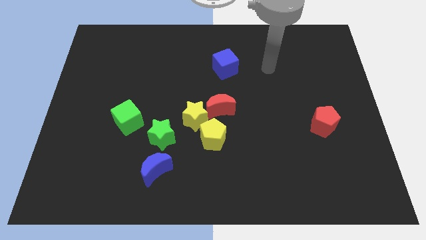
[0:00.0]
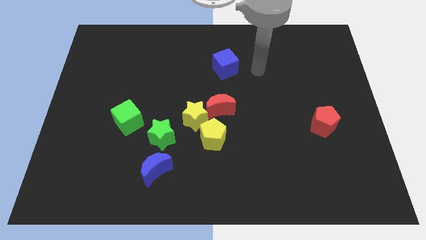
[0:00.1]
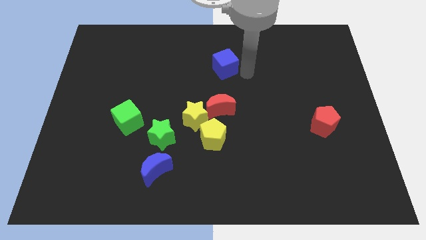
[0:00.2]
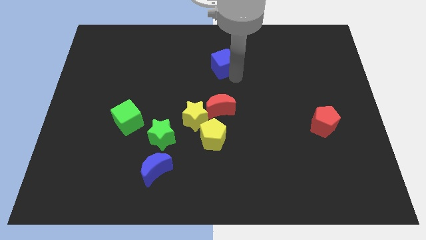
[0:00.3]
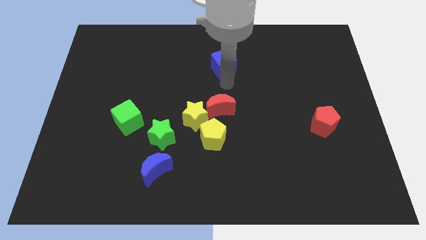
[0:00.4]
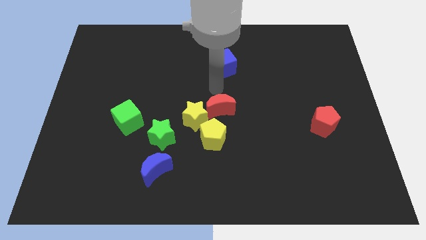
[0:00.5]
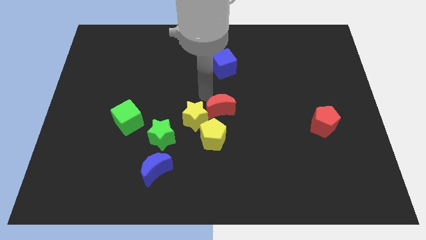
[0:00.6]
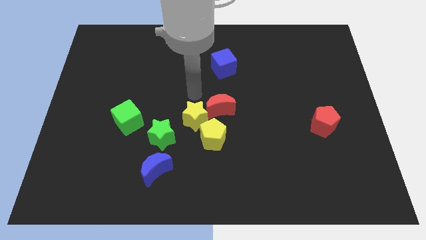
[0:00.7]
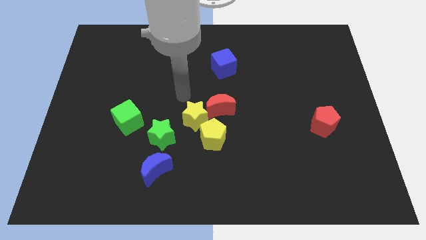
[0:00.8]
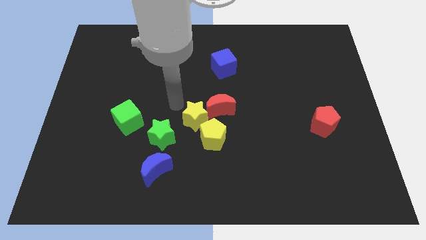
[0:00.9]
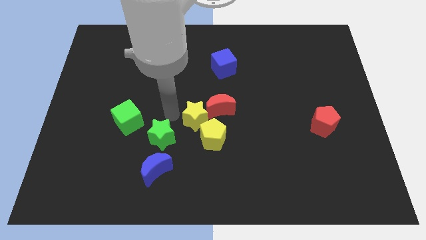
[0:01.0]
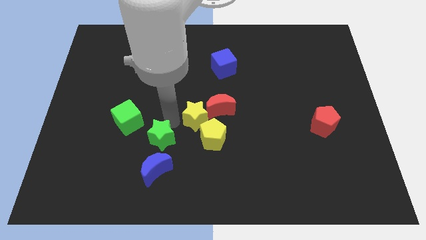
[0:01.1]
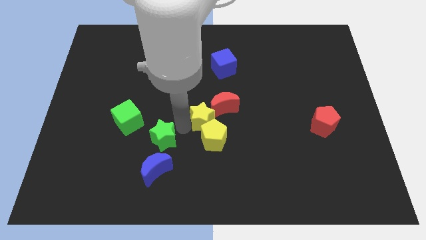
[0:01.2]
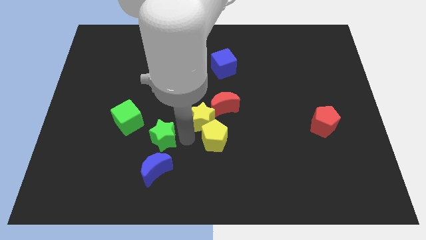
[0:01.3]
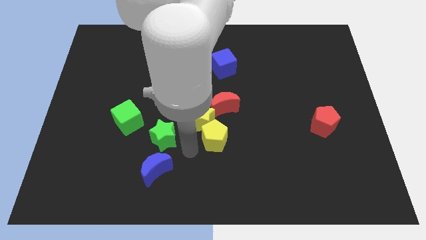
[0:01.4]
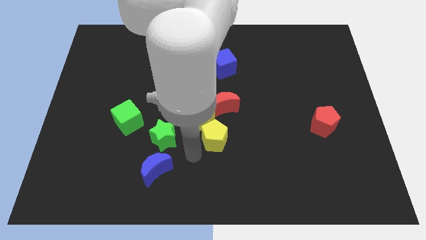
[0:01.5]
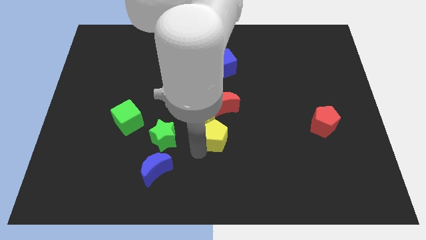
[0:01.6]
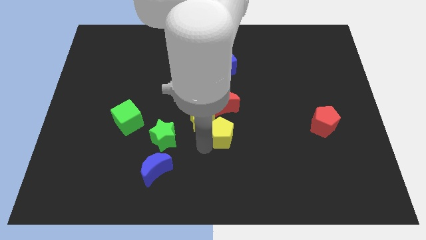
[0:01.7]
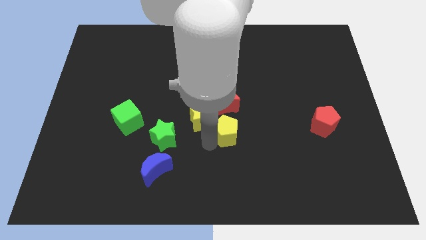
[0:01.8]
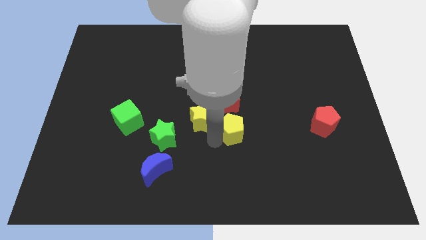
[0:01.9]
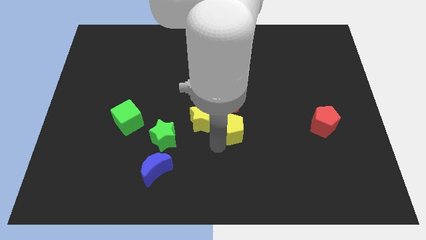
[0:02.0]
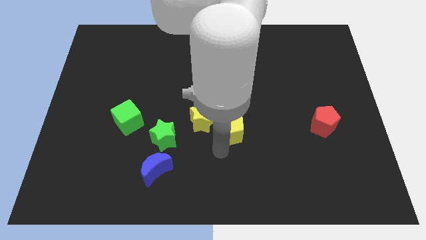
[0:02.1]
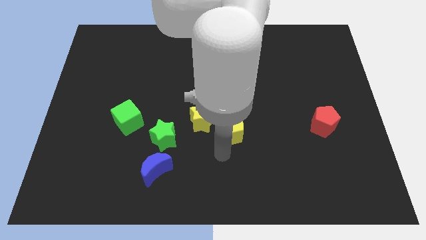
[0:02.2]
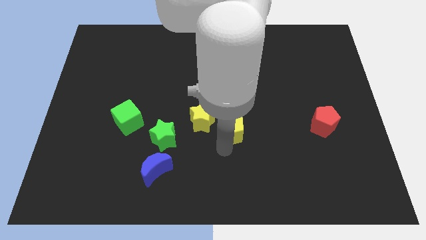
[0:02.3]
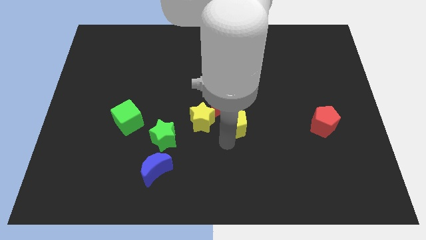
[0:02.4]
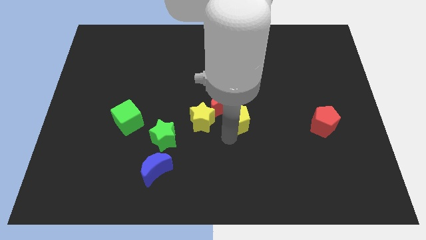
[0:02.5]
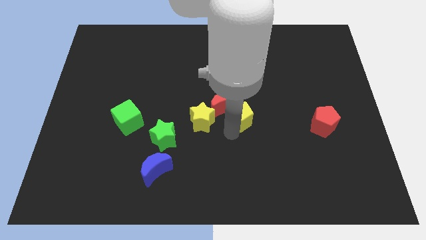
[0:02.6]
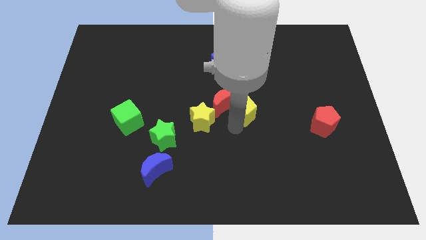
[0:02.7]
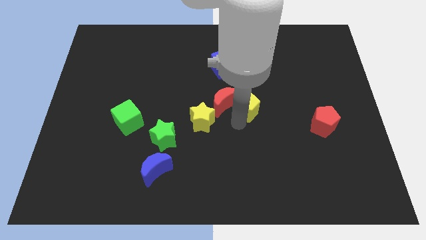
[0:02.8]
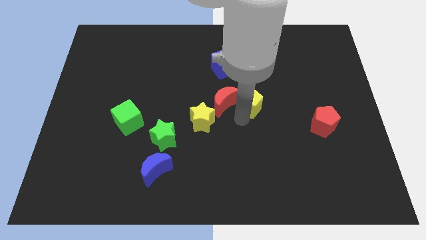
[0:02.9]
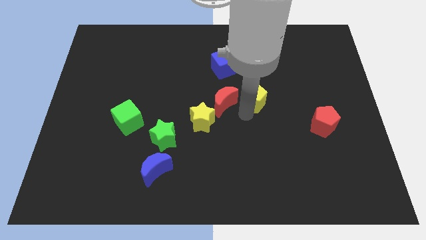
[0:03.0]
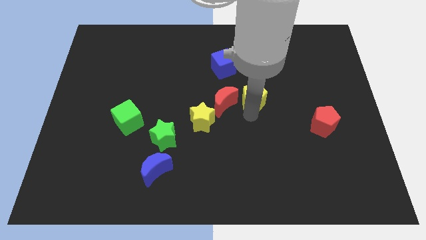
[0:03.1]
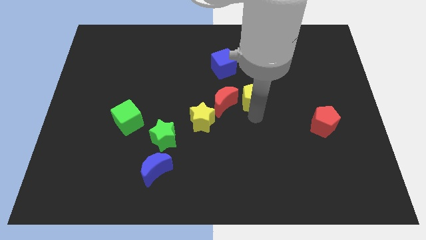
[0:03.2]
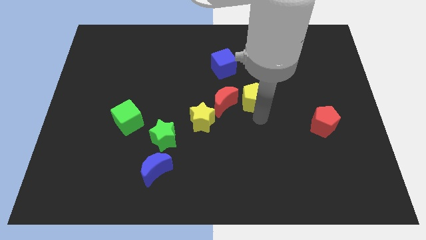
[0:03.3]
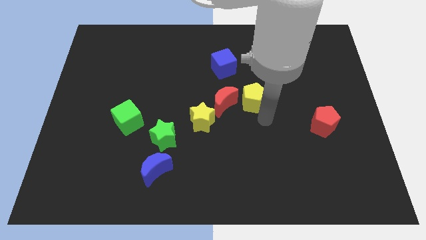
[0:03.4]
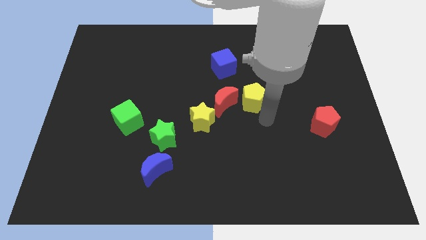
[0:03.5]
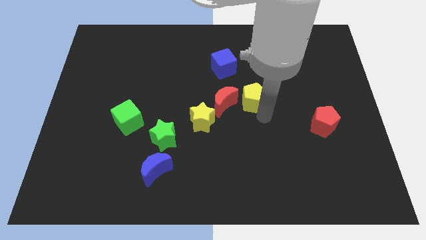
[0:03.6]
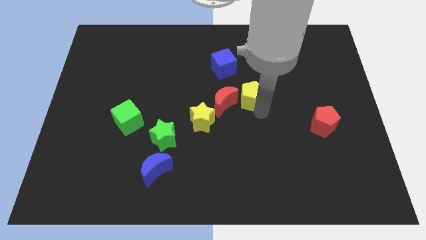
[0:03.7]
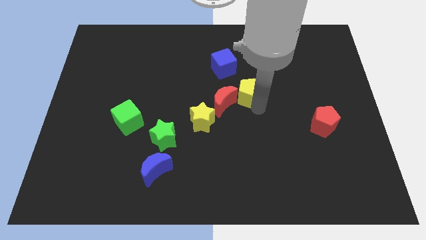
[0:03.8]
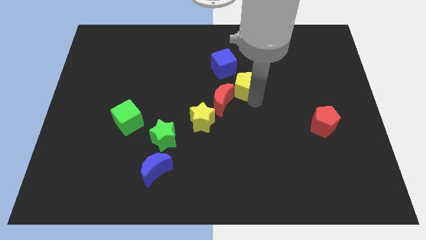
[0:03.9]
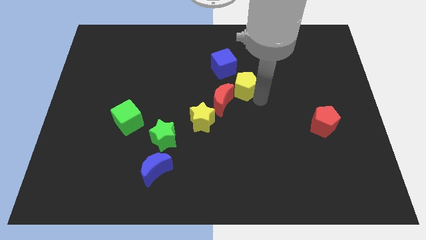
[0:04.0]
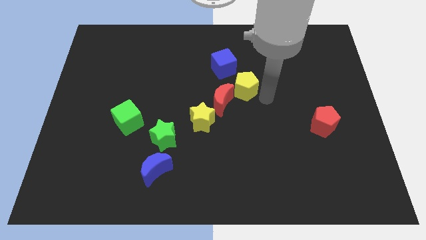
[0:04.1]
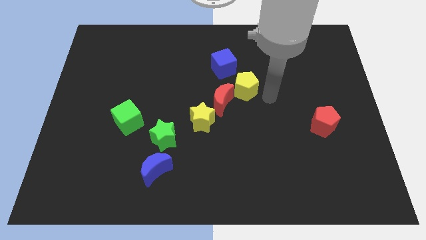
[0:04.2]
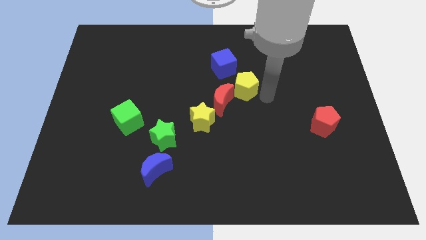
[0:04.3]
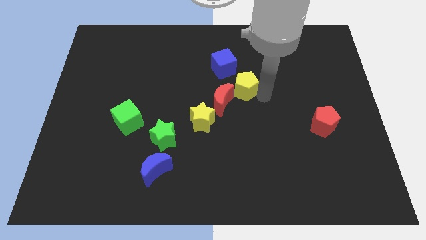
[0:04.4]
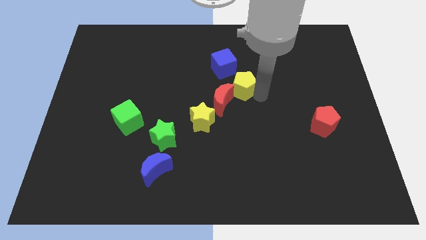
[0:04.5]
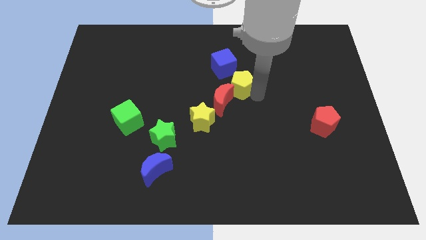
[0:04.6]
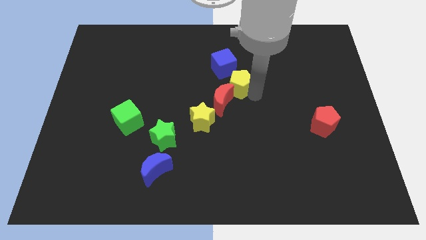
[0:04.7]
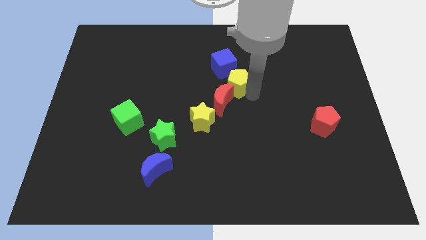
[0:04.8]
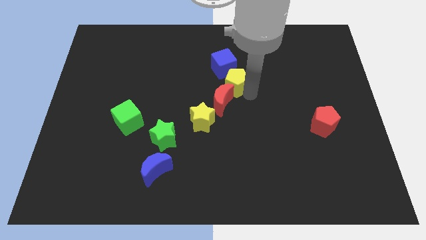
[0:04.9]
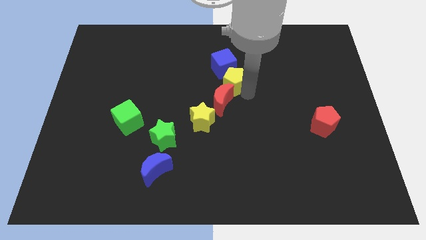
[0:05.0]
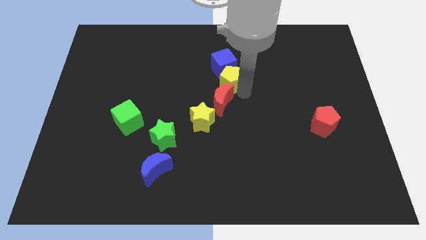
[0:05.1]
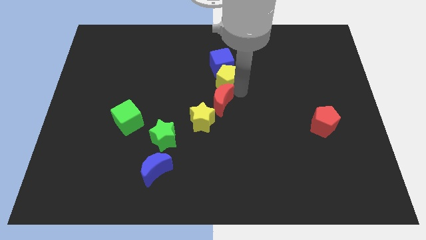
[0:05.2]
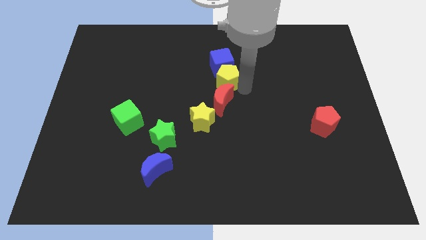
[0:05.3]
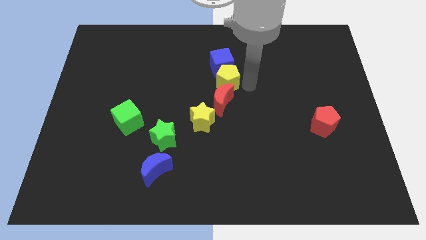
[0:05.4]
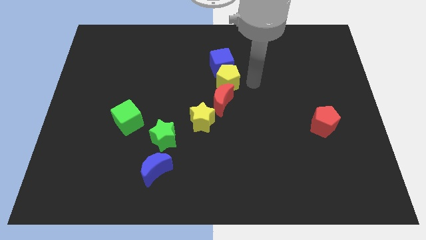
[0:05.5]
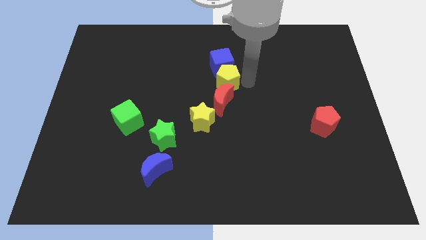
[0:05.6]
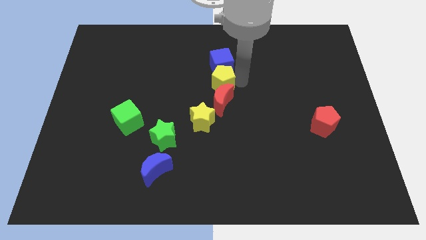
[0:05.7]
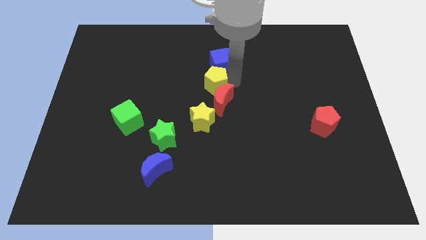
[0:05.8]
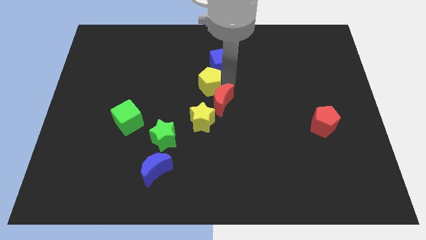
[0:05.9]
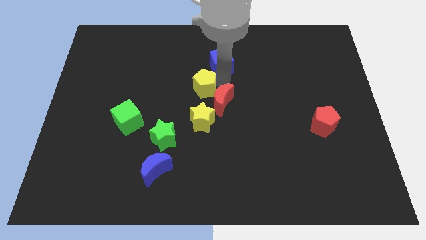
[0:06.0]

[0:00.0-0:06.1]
slide the yellow pentagon up and to the left diagonally a little bit

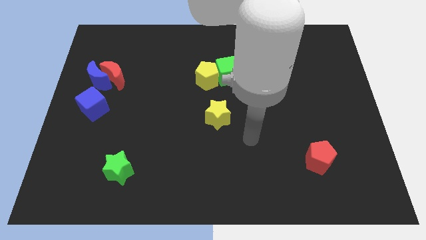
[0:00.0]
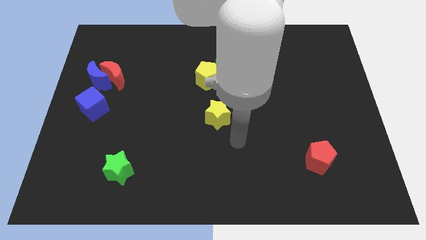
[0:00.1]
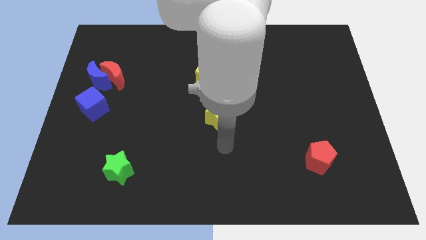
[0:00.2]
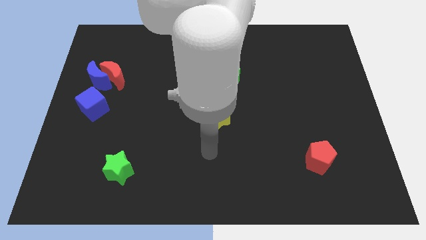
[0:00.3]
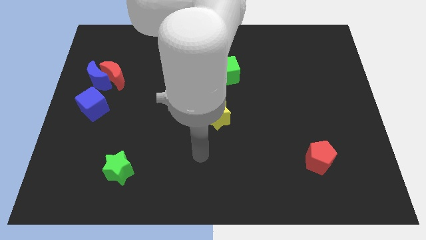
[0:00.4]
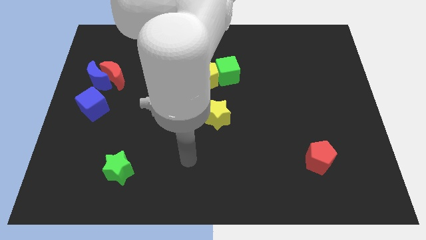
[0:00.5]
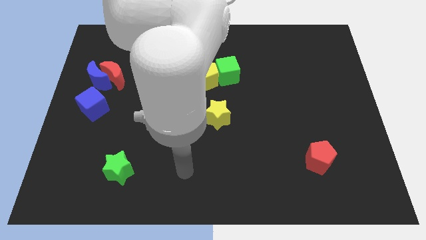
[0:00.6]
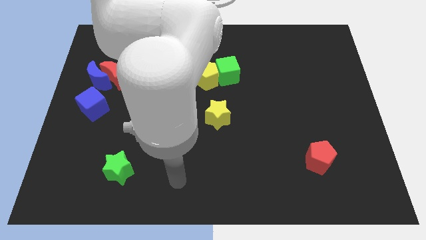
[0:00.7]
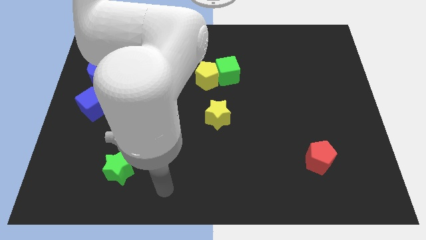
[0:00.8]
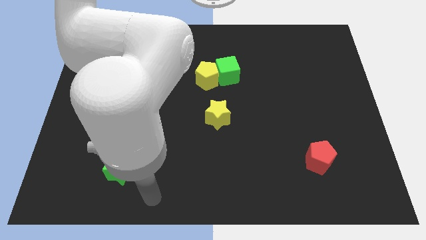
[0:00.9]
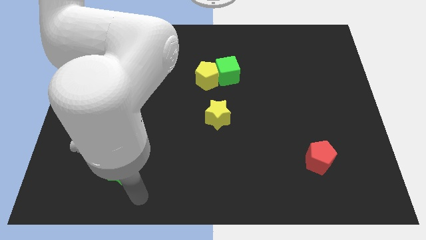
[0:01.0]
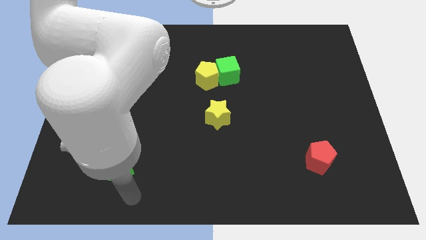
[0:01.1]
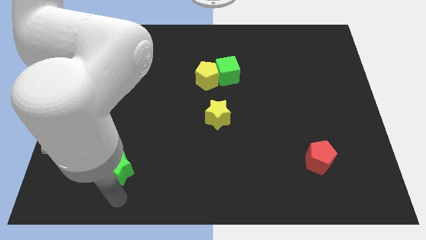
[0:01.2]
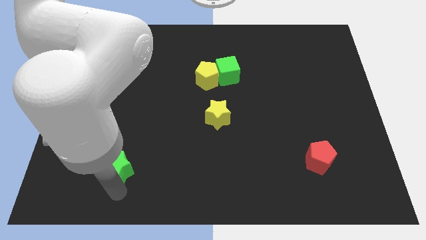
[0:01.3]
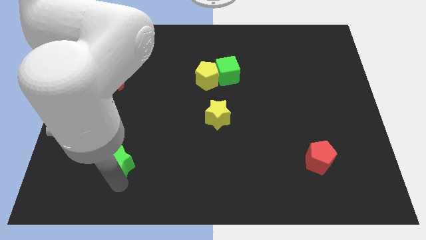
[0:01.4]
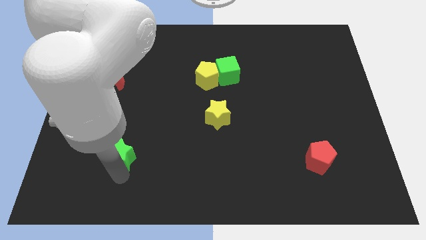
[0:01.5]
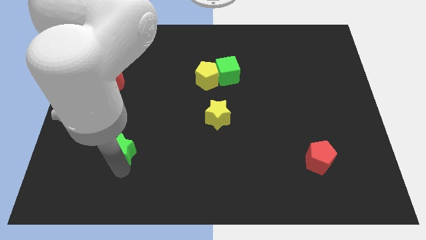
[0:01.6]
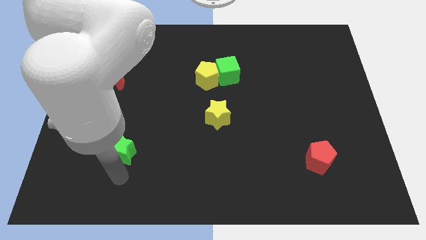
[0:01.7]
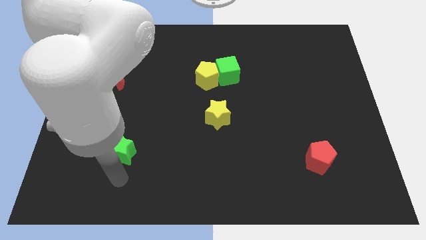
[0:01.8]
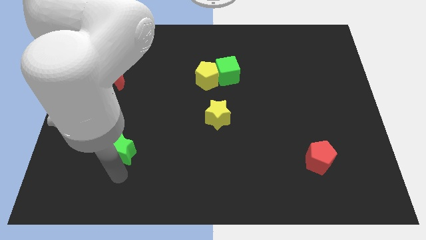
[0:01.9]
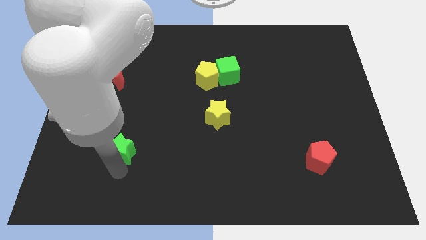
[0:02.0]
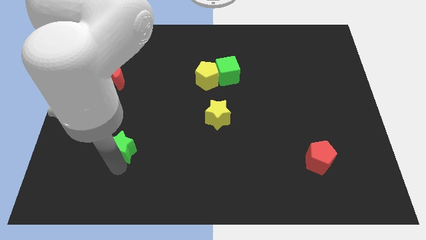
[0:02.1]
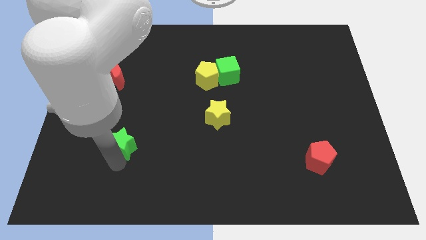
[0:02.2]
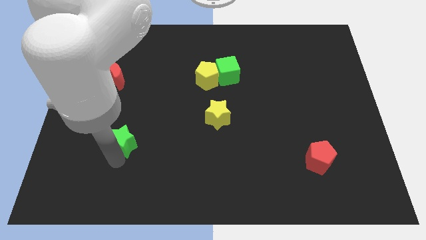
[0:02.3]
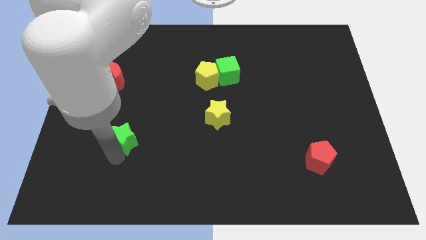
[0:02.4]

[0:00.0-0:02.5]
slightly push the green star upwards
